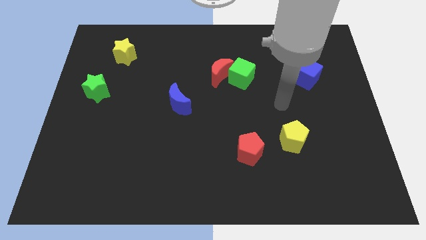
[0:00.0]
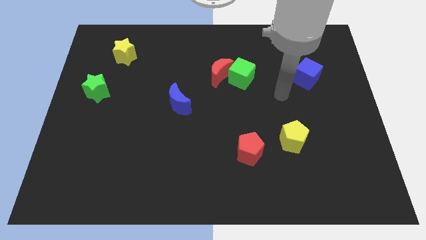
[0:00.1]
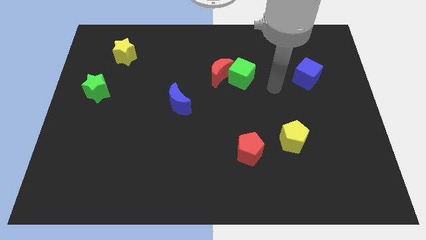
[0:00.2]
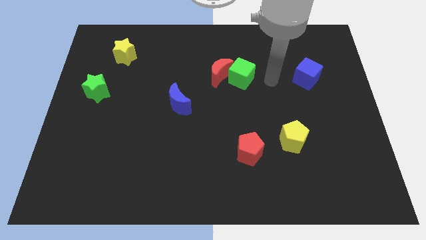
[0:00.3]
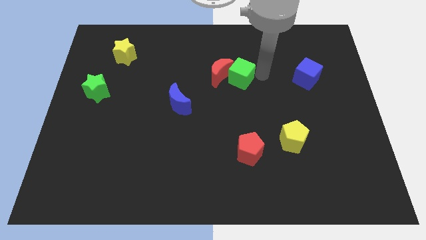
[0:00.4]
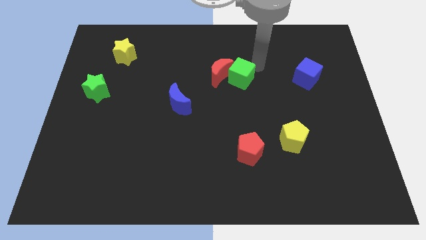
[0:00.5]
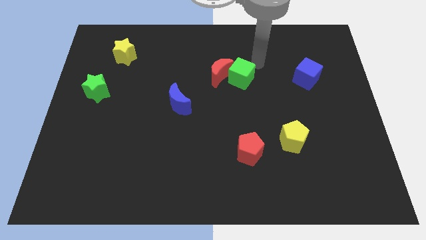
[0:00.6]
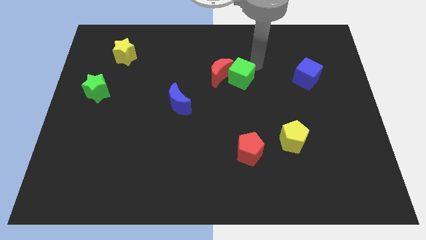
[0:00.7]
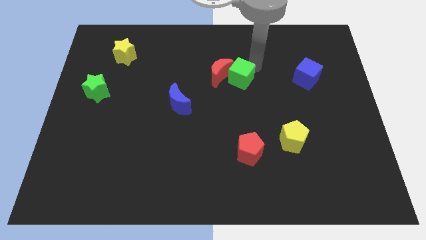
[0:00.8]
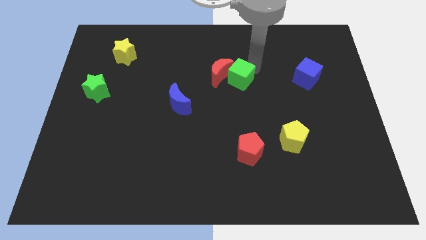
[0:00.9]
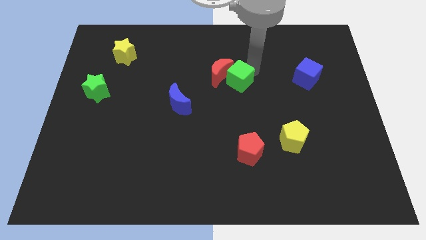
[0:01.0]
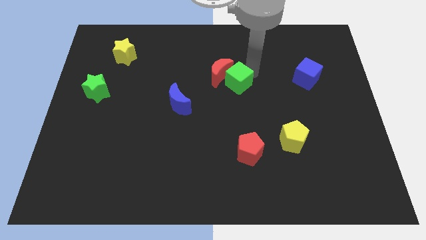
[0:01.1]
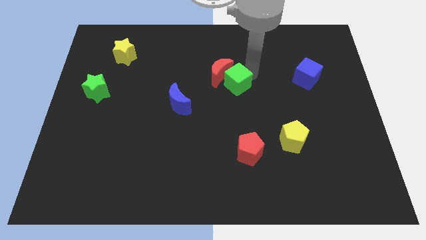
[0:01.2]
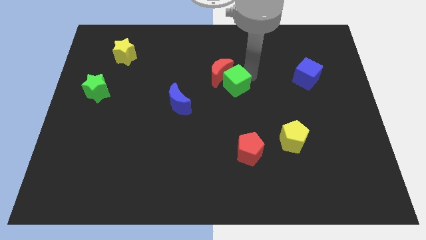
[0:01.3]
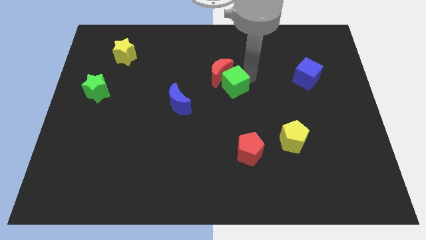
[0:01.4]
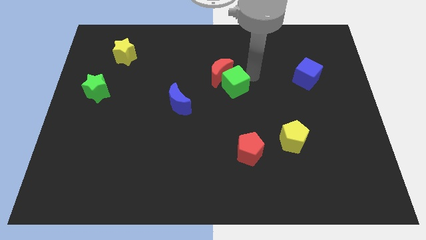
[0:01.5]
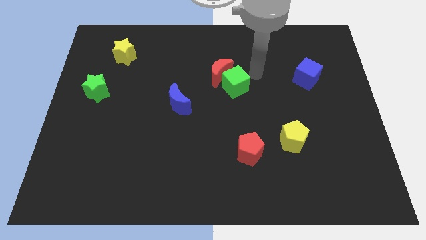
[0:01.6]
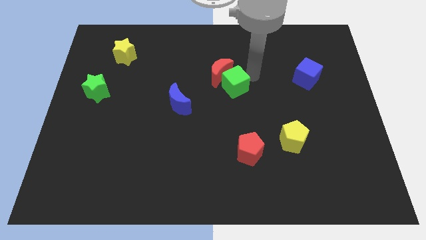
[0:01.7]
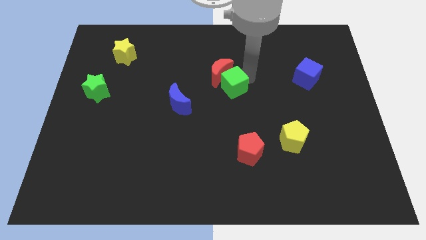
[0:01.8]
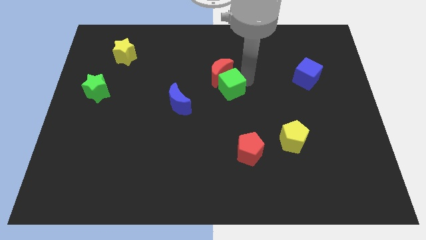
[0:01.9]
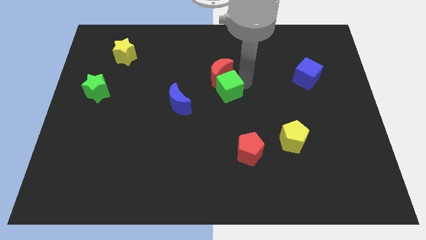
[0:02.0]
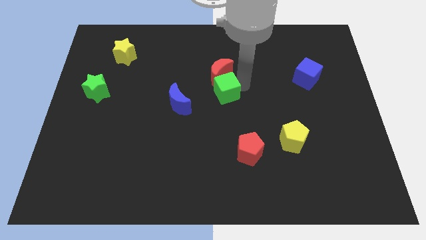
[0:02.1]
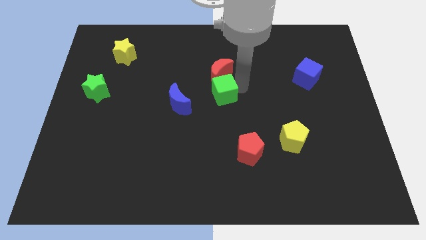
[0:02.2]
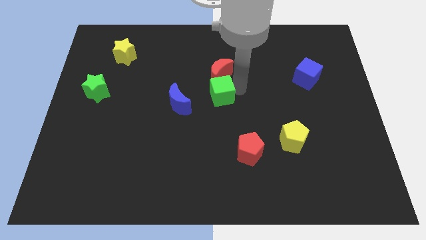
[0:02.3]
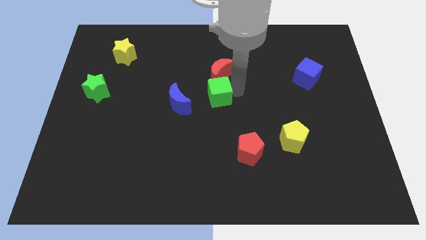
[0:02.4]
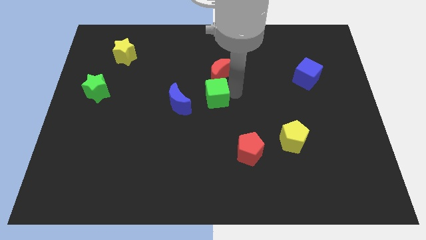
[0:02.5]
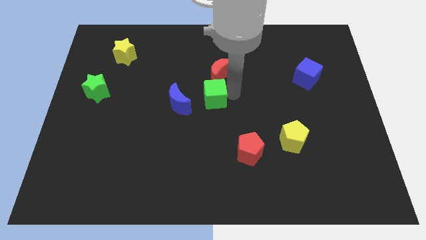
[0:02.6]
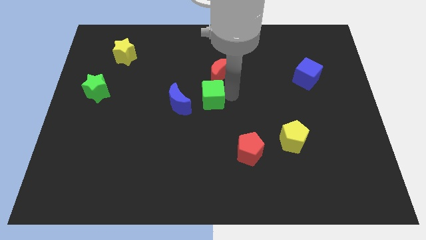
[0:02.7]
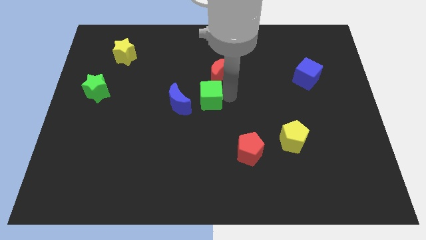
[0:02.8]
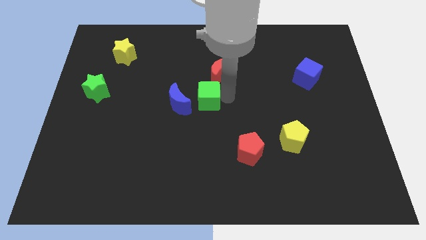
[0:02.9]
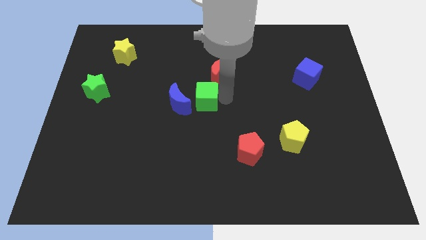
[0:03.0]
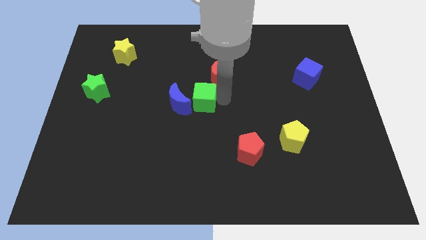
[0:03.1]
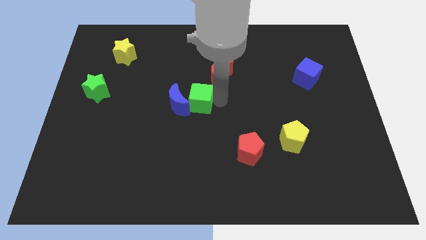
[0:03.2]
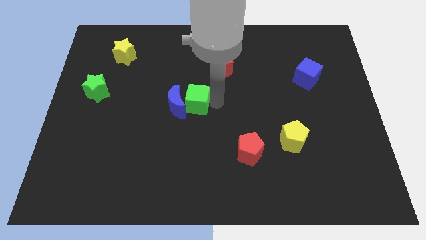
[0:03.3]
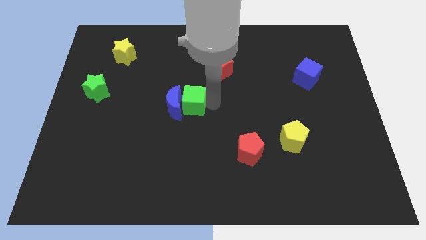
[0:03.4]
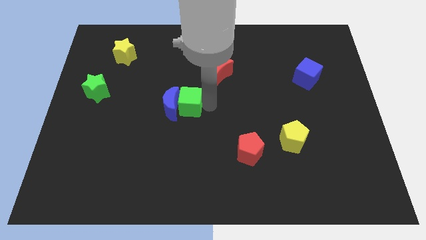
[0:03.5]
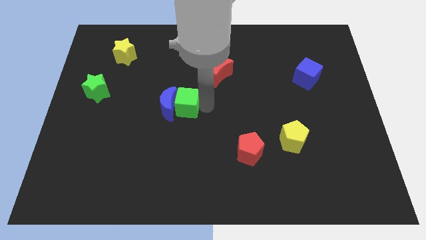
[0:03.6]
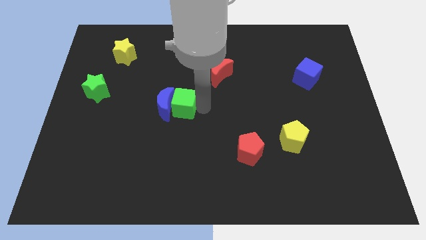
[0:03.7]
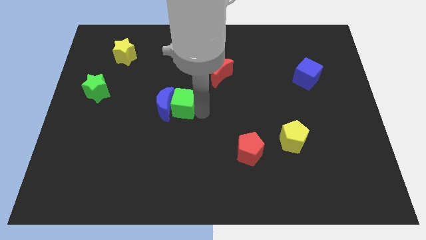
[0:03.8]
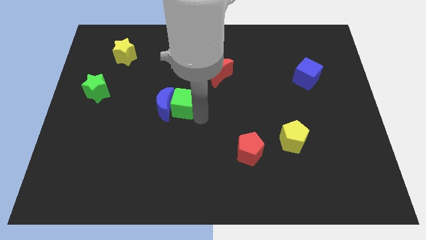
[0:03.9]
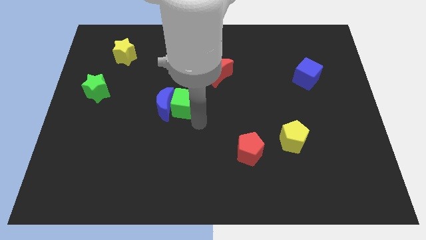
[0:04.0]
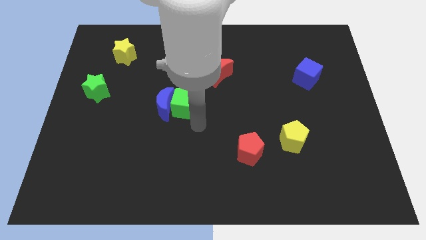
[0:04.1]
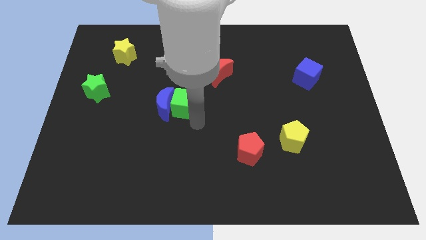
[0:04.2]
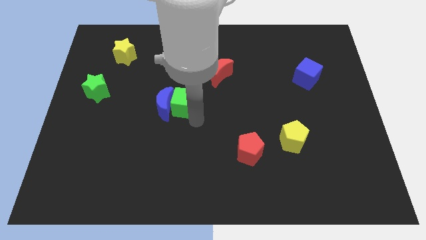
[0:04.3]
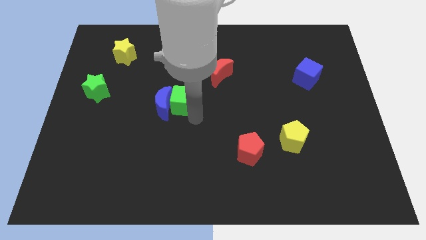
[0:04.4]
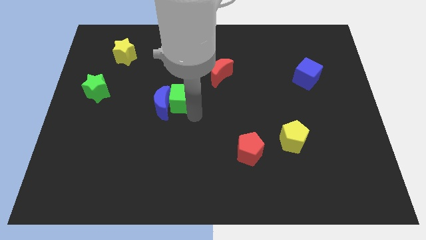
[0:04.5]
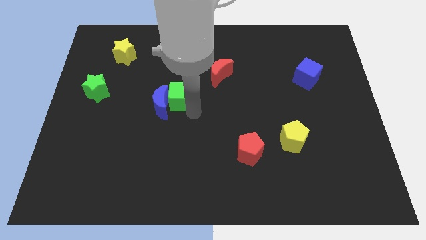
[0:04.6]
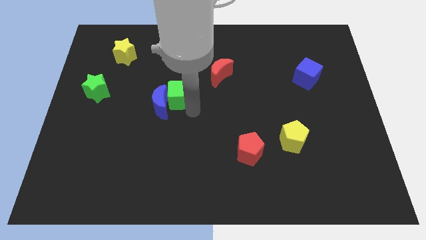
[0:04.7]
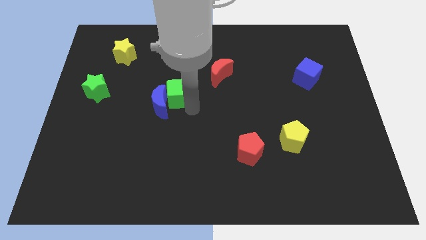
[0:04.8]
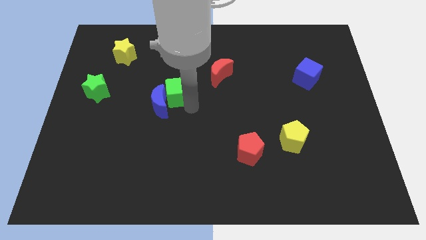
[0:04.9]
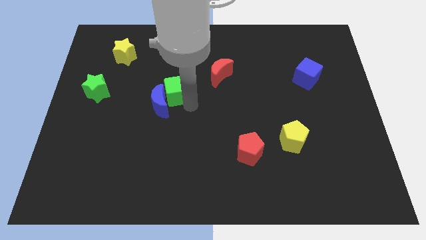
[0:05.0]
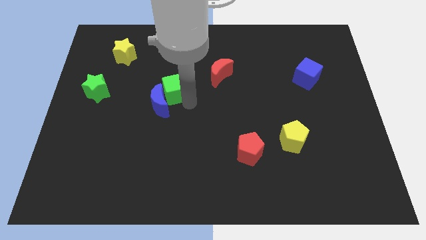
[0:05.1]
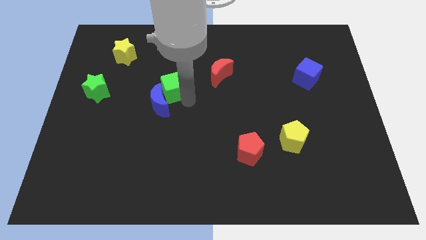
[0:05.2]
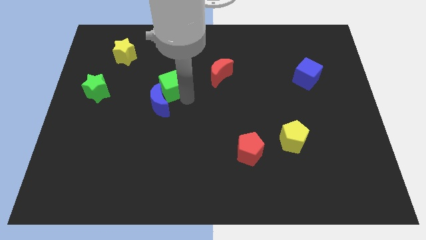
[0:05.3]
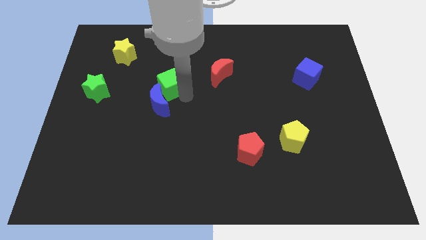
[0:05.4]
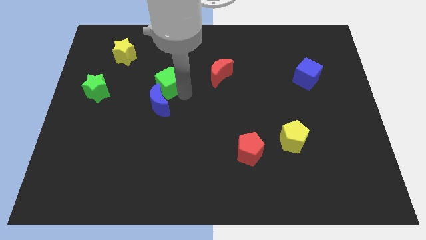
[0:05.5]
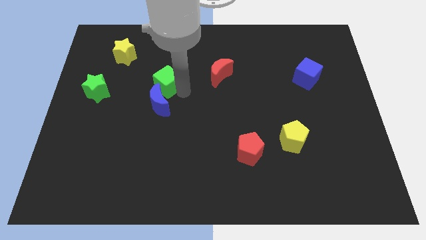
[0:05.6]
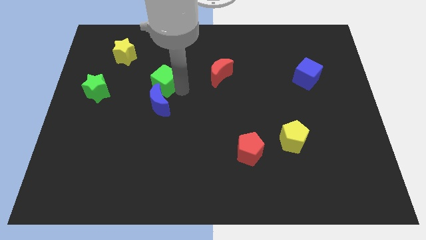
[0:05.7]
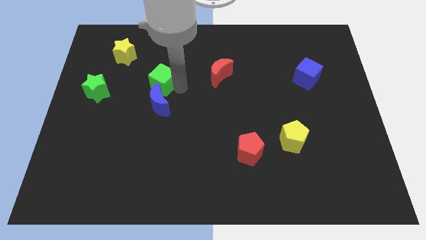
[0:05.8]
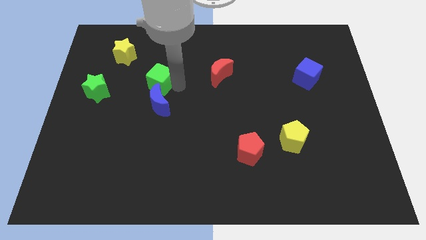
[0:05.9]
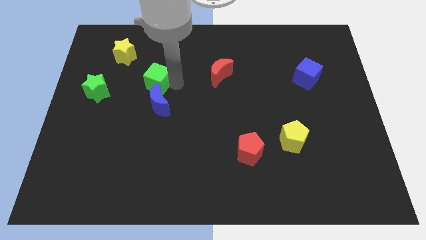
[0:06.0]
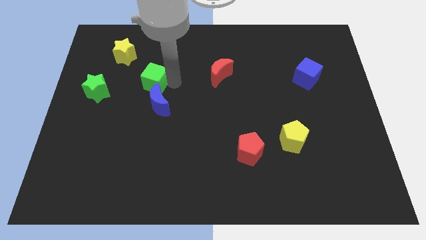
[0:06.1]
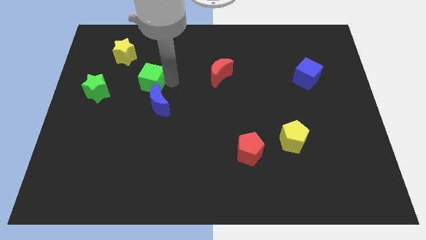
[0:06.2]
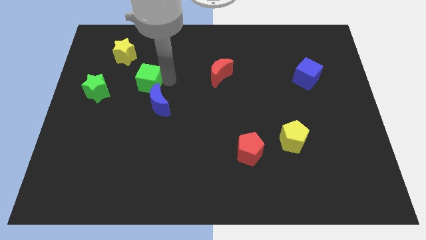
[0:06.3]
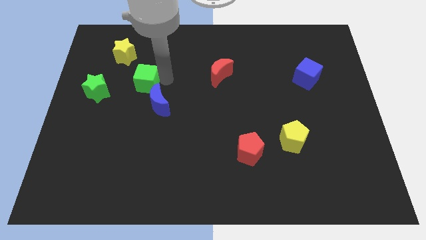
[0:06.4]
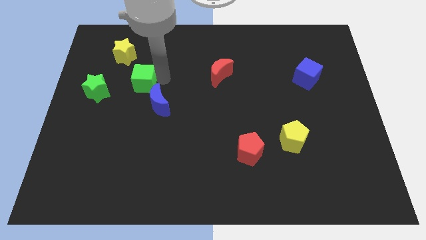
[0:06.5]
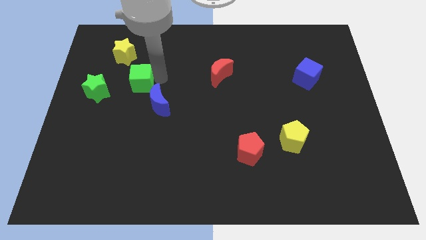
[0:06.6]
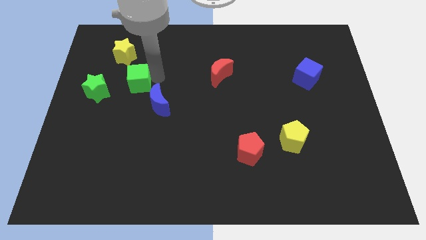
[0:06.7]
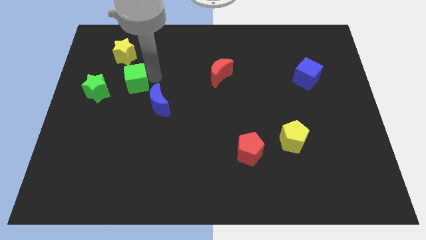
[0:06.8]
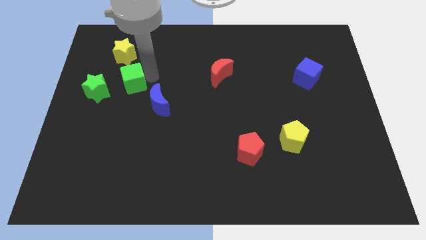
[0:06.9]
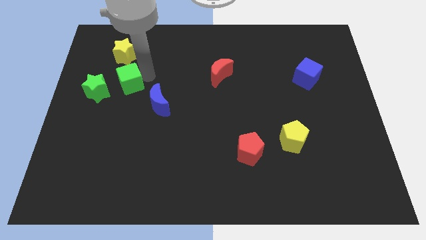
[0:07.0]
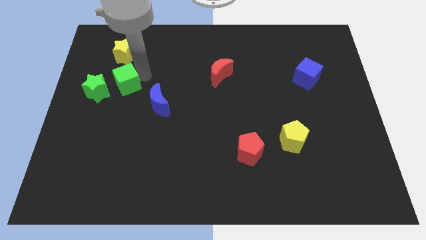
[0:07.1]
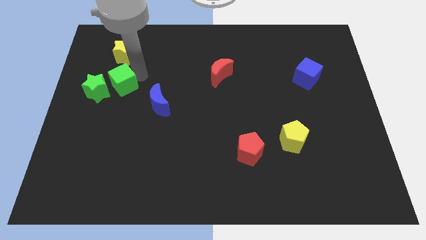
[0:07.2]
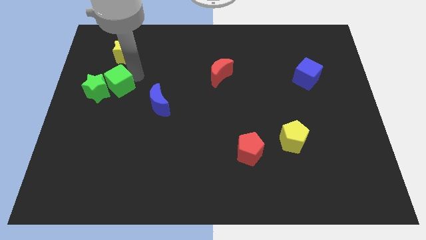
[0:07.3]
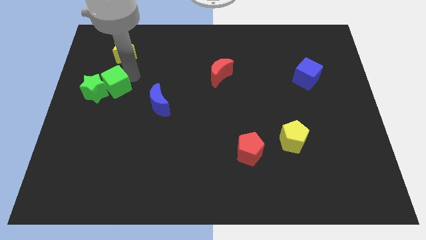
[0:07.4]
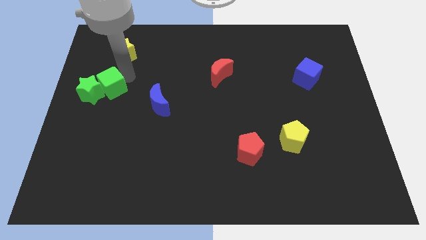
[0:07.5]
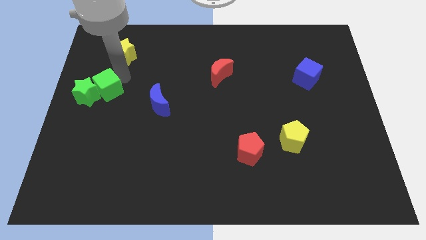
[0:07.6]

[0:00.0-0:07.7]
push the green cube to the left side
